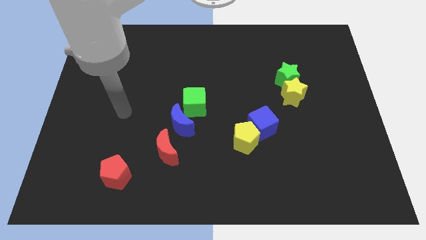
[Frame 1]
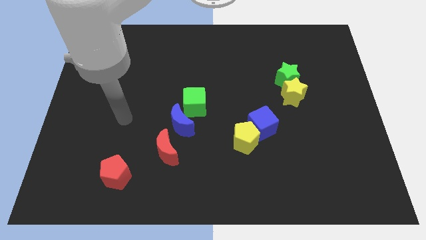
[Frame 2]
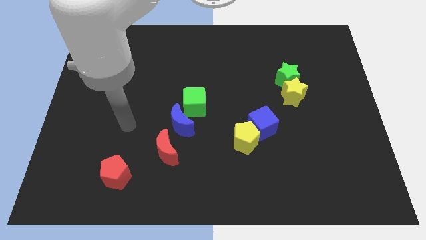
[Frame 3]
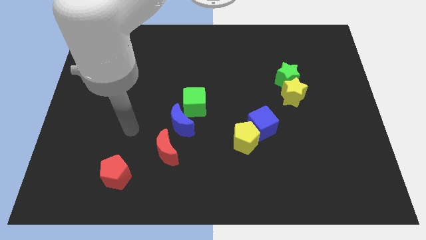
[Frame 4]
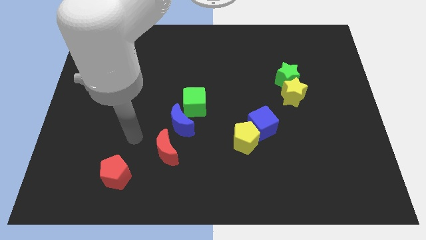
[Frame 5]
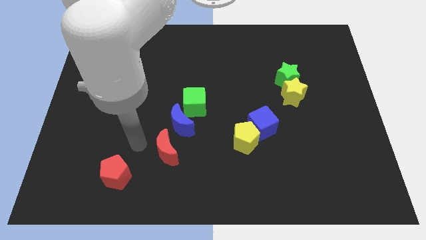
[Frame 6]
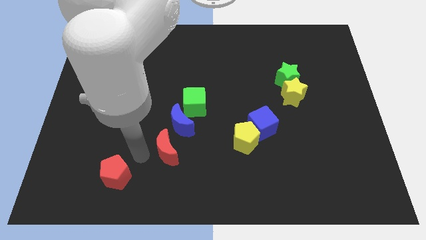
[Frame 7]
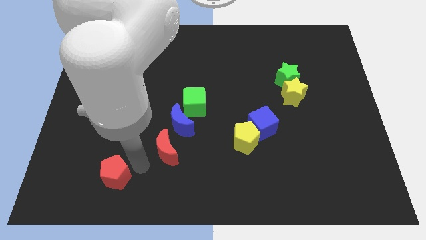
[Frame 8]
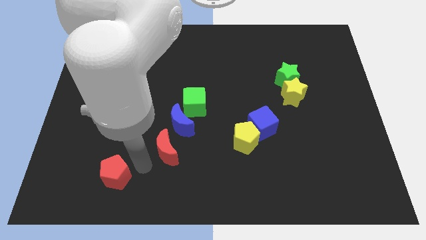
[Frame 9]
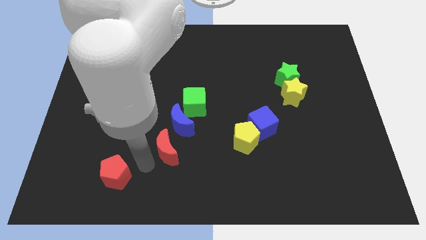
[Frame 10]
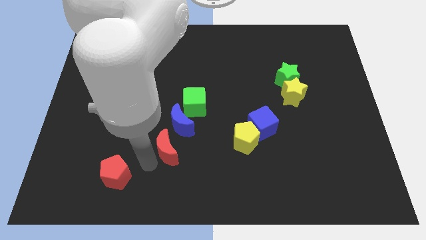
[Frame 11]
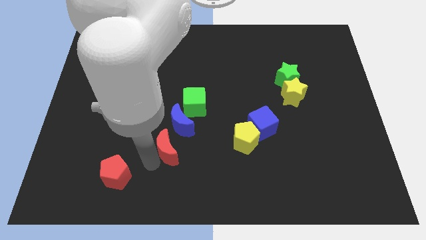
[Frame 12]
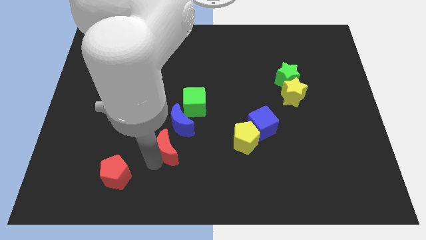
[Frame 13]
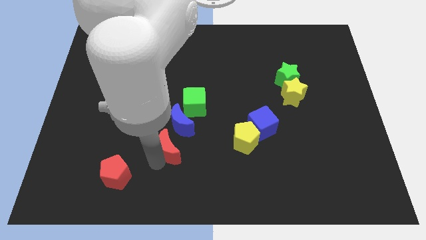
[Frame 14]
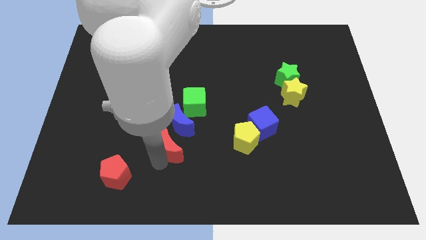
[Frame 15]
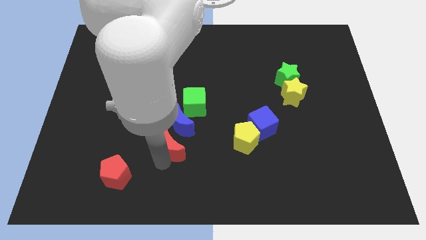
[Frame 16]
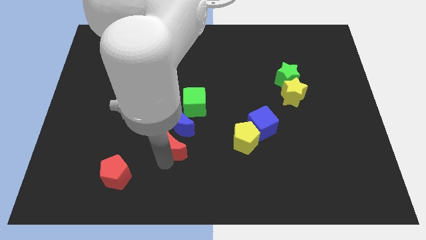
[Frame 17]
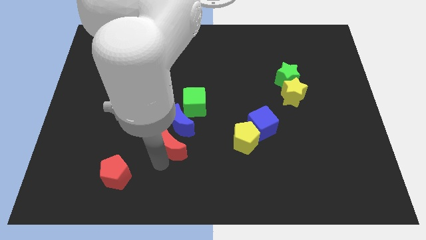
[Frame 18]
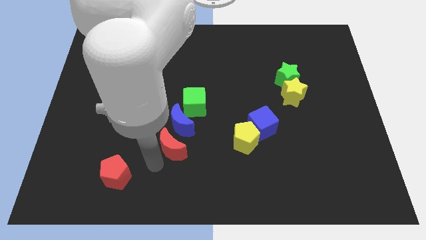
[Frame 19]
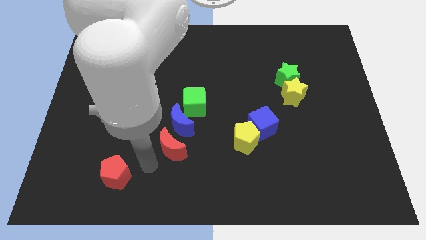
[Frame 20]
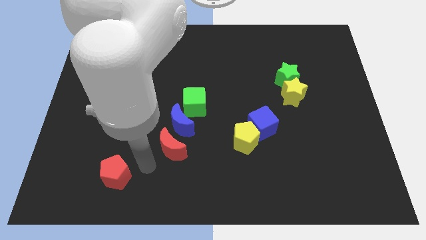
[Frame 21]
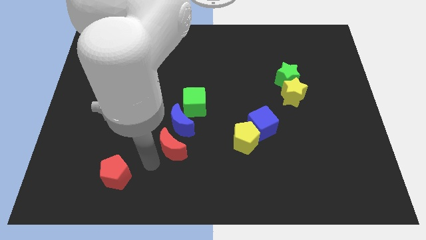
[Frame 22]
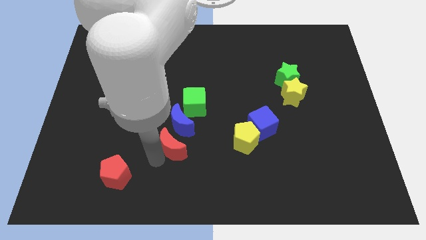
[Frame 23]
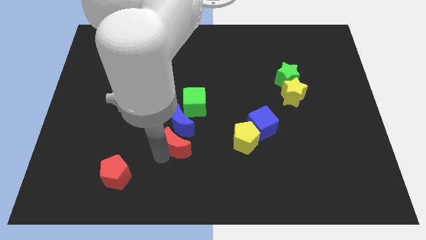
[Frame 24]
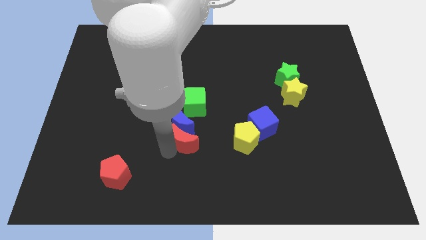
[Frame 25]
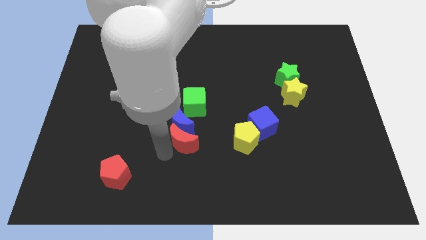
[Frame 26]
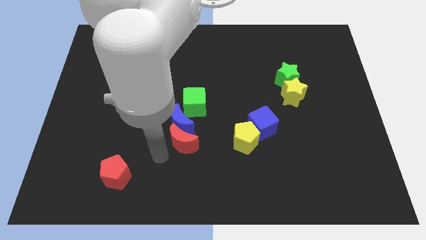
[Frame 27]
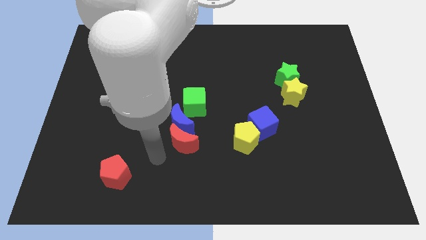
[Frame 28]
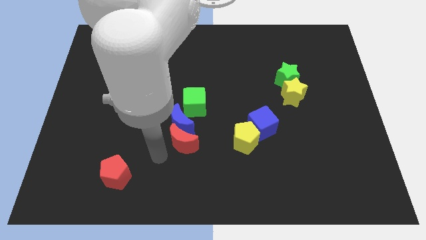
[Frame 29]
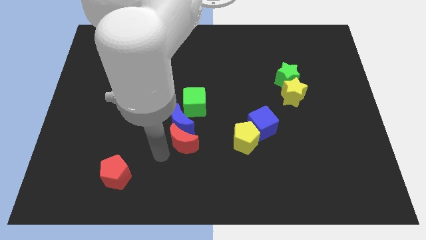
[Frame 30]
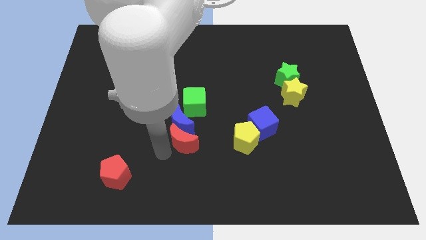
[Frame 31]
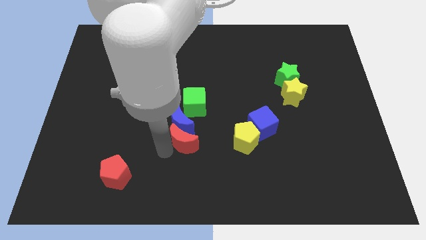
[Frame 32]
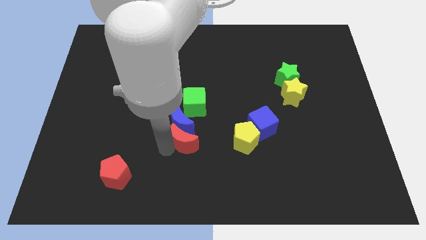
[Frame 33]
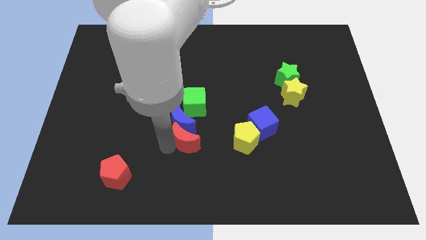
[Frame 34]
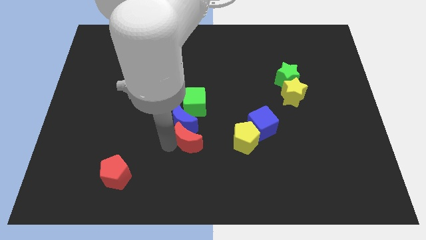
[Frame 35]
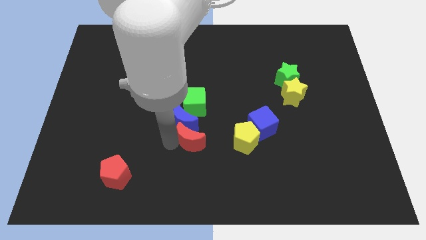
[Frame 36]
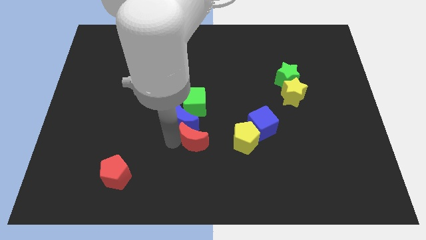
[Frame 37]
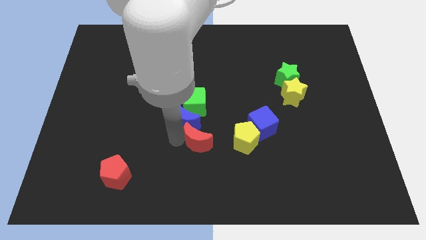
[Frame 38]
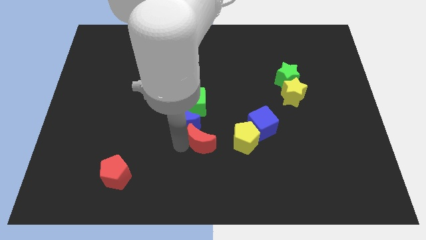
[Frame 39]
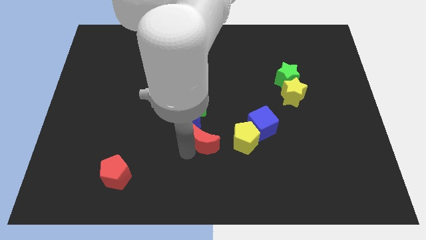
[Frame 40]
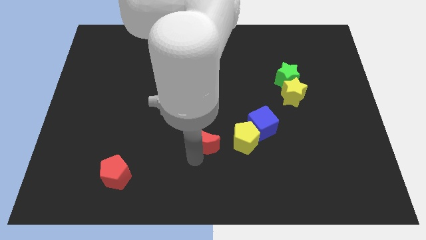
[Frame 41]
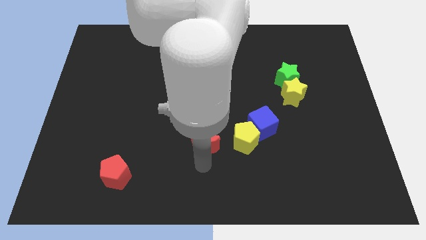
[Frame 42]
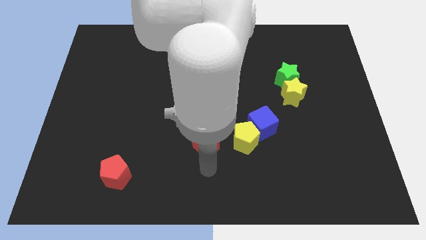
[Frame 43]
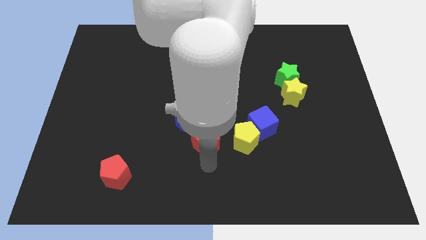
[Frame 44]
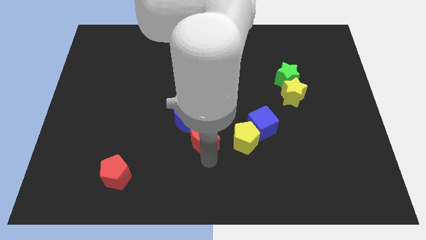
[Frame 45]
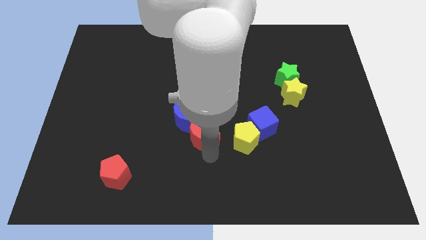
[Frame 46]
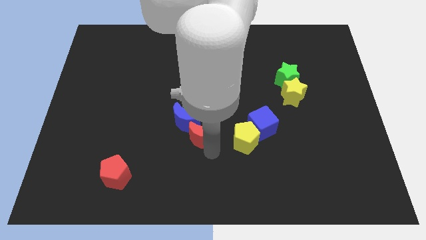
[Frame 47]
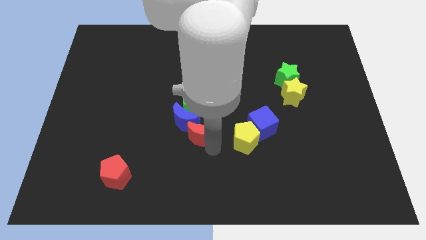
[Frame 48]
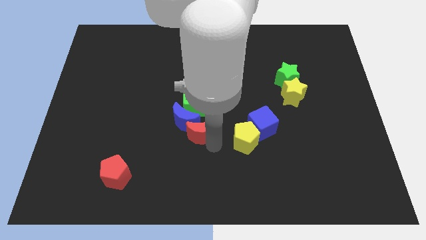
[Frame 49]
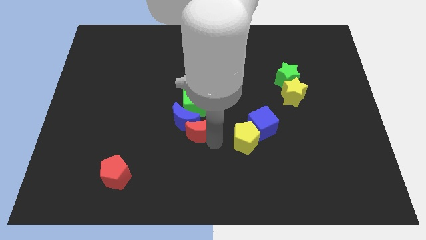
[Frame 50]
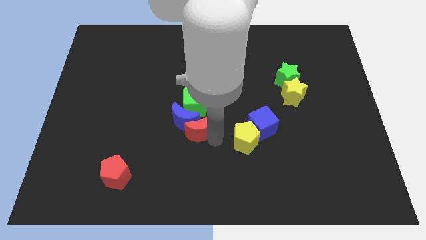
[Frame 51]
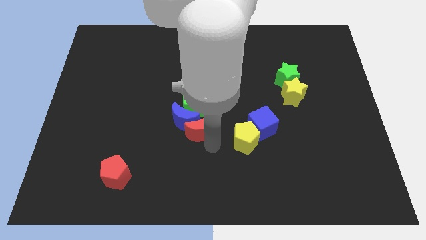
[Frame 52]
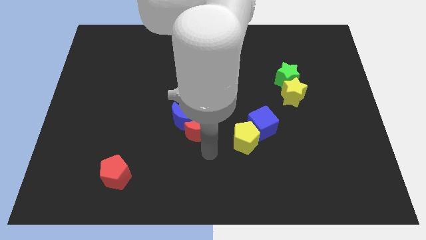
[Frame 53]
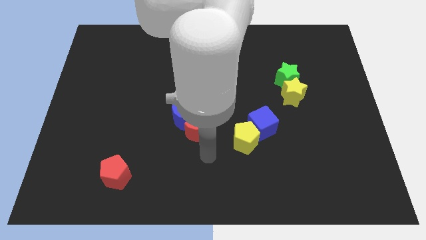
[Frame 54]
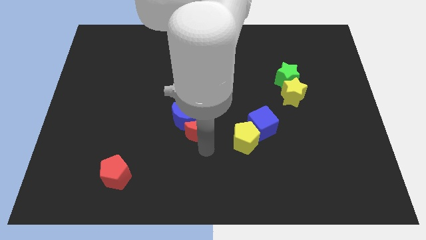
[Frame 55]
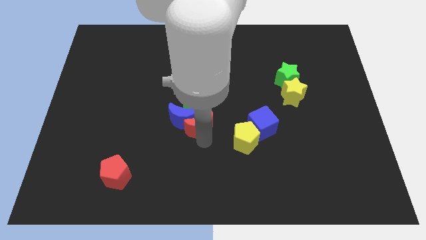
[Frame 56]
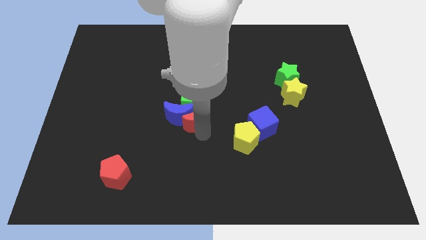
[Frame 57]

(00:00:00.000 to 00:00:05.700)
push the red moon close to the green cube
